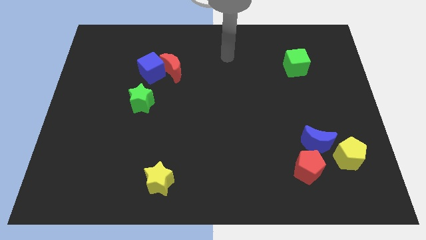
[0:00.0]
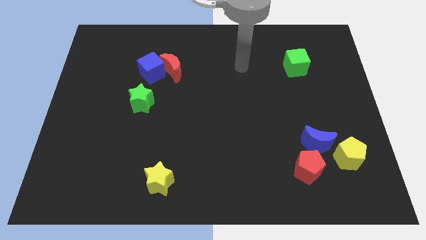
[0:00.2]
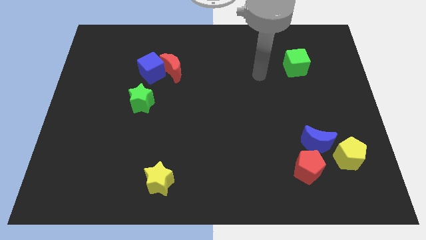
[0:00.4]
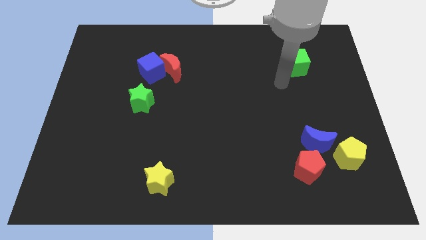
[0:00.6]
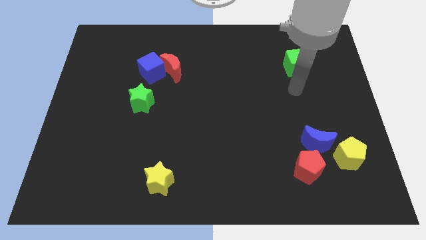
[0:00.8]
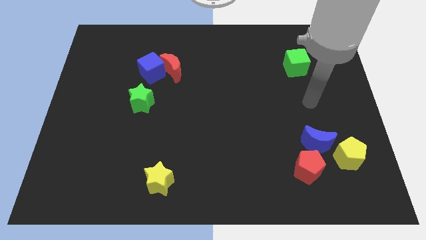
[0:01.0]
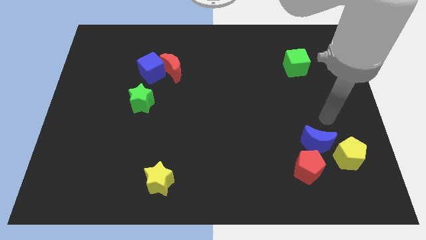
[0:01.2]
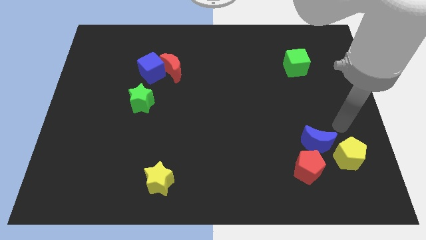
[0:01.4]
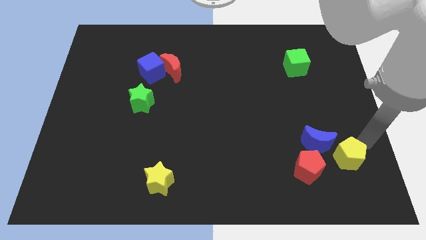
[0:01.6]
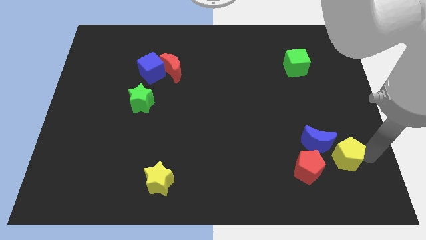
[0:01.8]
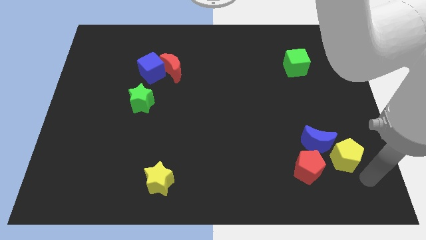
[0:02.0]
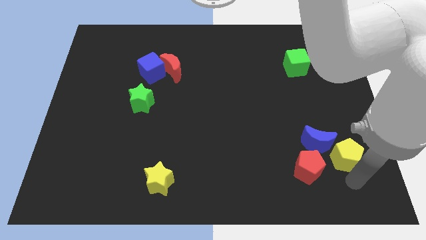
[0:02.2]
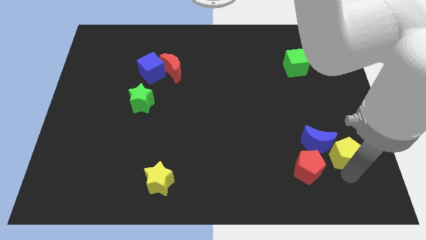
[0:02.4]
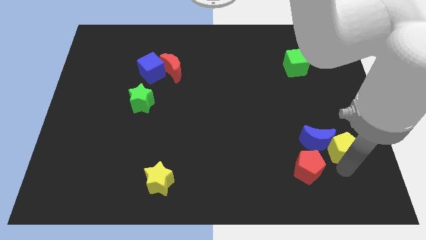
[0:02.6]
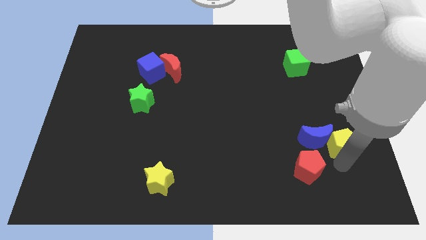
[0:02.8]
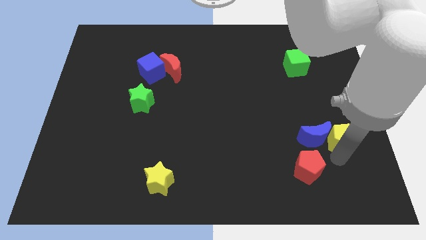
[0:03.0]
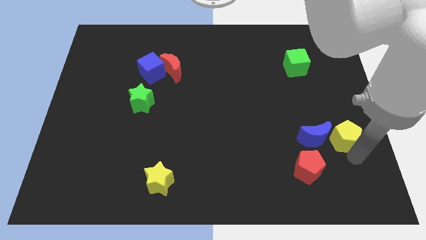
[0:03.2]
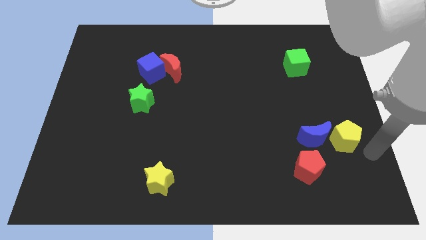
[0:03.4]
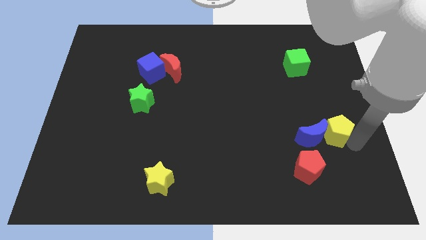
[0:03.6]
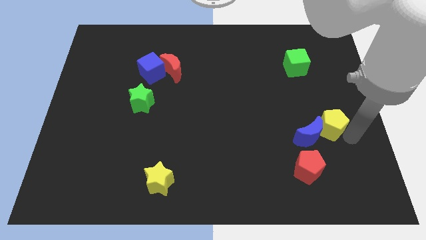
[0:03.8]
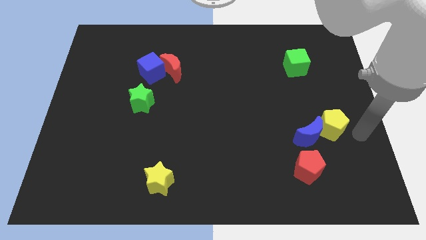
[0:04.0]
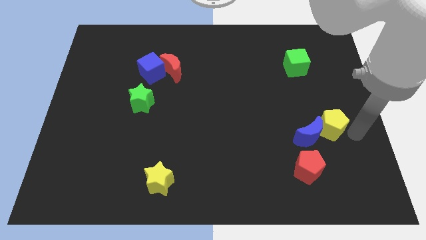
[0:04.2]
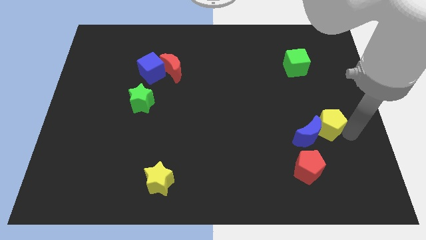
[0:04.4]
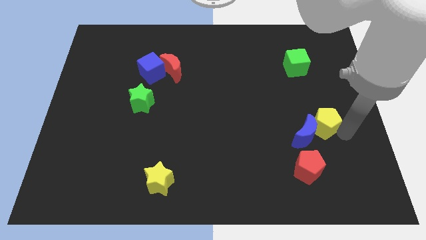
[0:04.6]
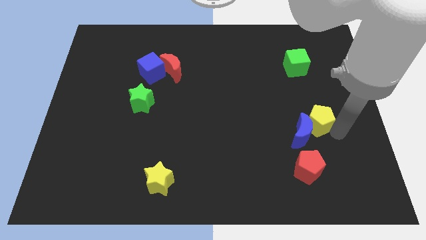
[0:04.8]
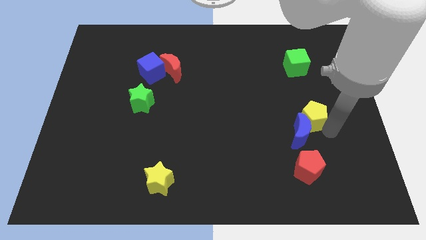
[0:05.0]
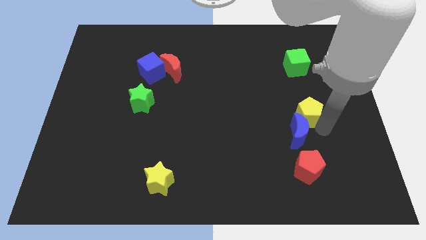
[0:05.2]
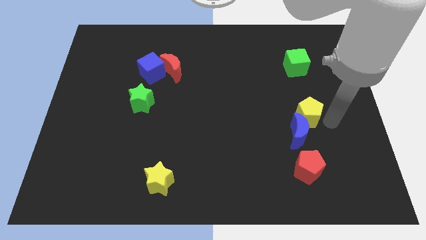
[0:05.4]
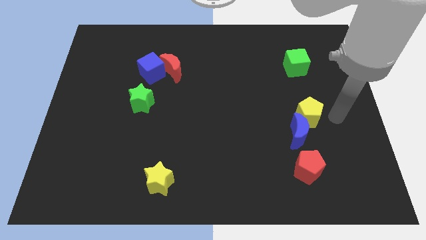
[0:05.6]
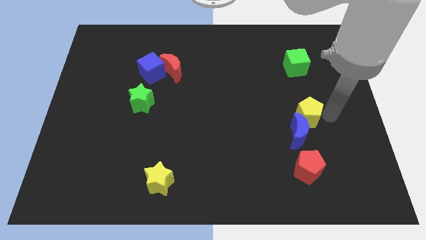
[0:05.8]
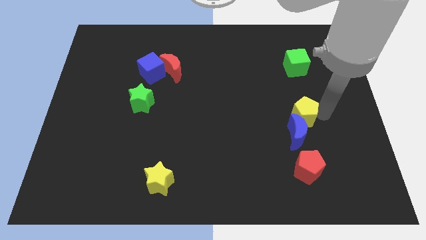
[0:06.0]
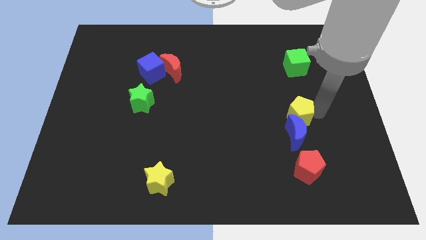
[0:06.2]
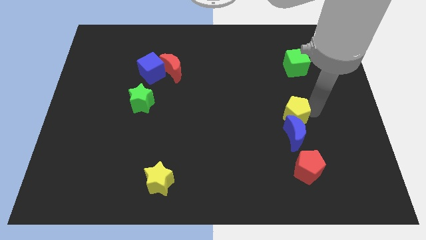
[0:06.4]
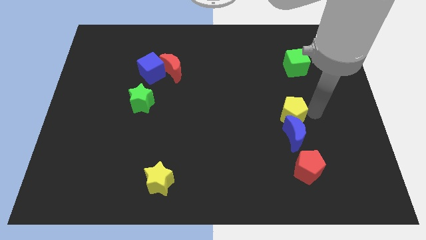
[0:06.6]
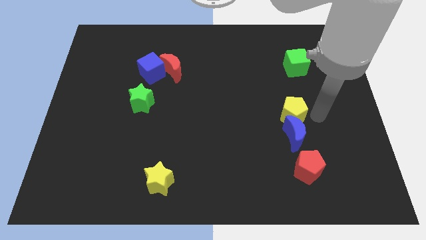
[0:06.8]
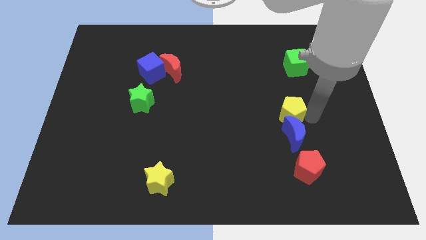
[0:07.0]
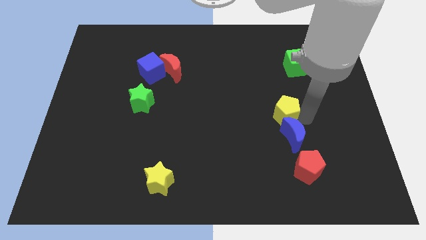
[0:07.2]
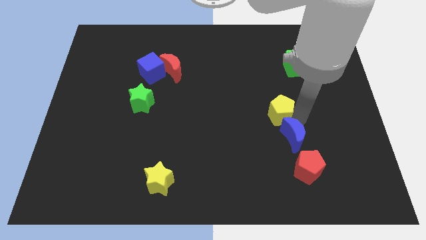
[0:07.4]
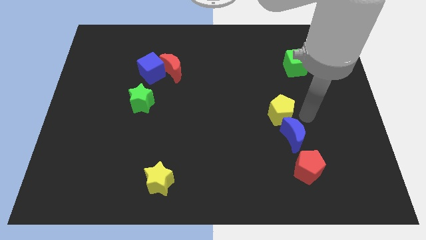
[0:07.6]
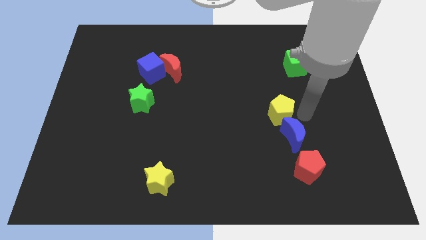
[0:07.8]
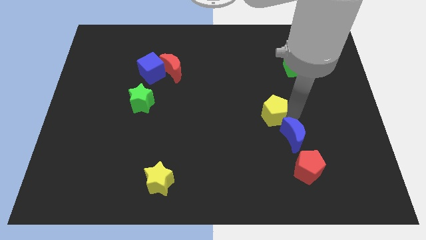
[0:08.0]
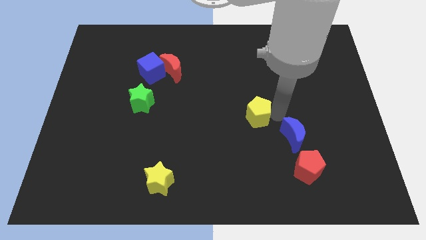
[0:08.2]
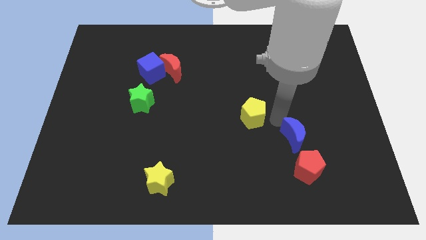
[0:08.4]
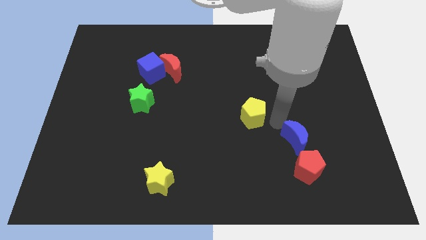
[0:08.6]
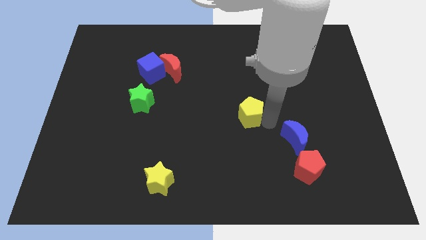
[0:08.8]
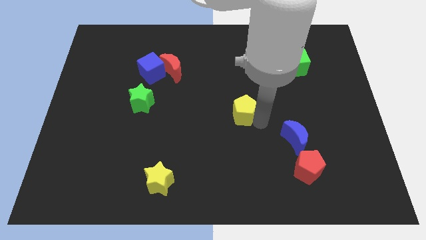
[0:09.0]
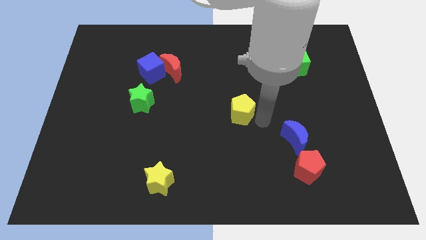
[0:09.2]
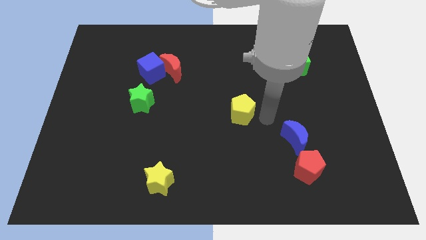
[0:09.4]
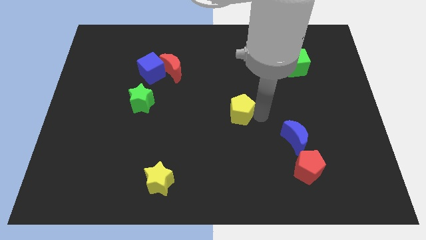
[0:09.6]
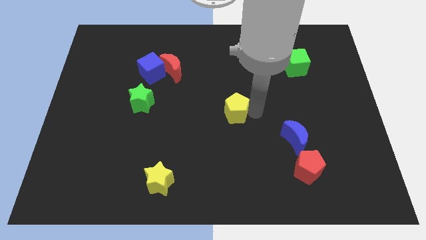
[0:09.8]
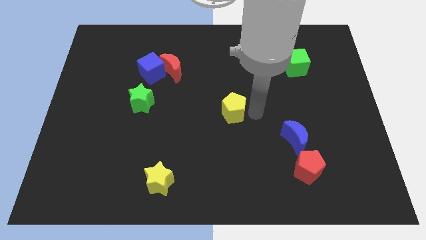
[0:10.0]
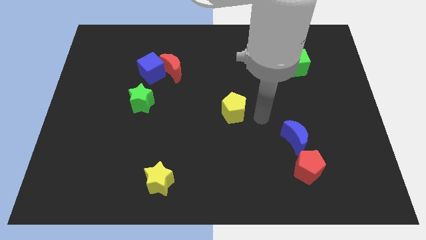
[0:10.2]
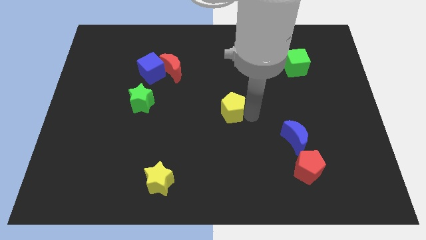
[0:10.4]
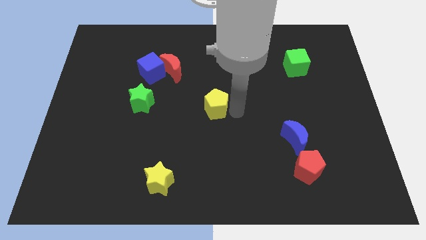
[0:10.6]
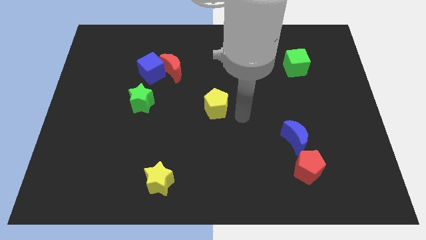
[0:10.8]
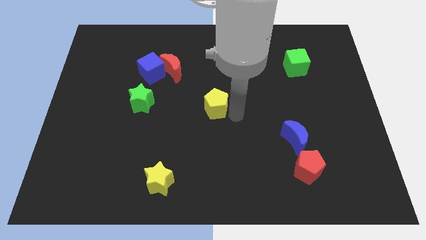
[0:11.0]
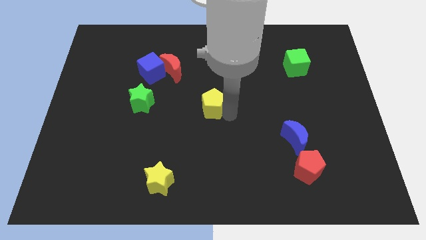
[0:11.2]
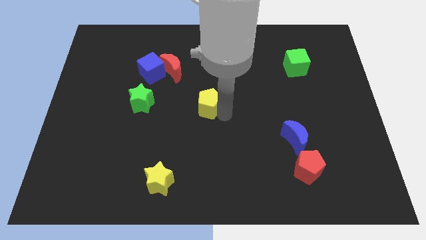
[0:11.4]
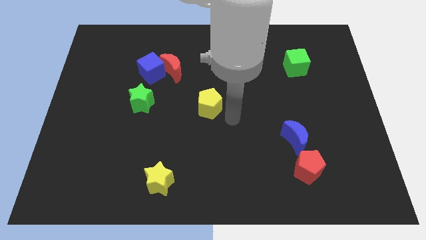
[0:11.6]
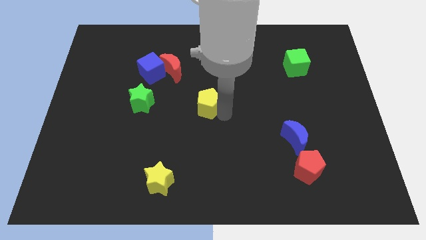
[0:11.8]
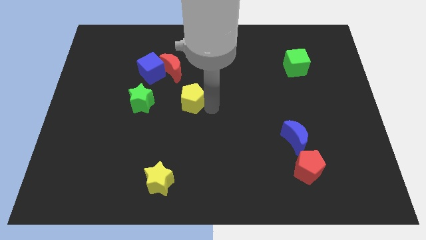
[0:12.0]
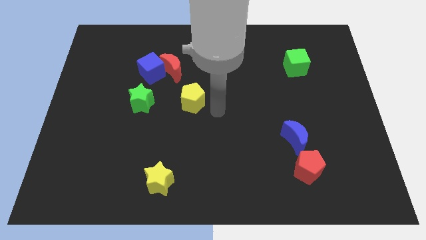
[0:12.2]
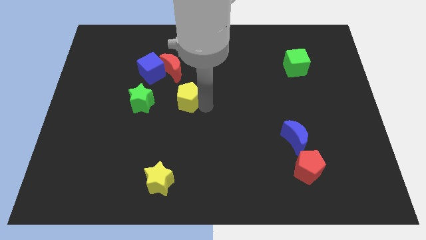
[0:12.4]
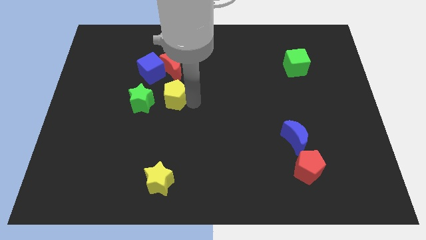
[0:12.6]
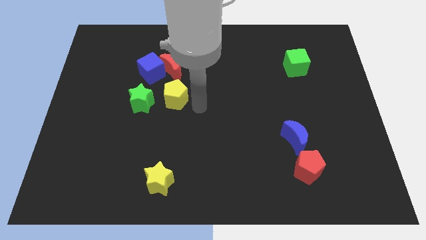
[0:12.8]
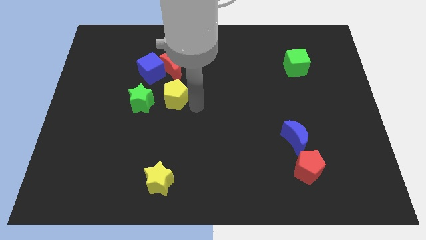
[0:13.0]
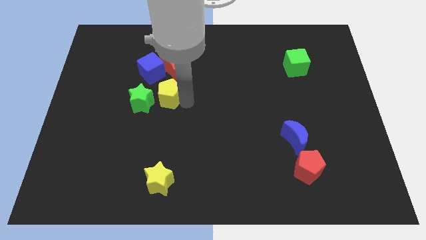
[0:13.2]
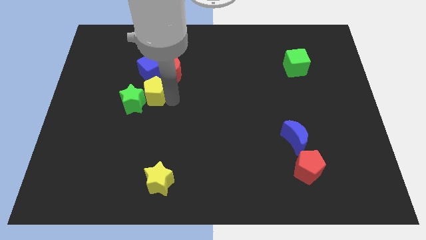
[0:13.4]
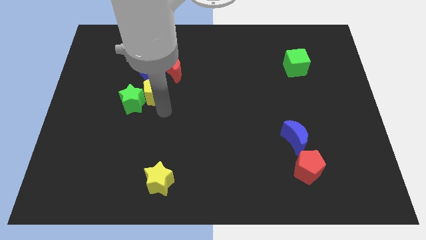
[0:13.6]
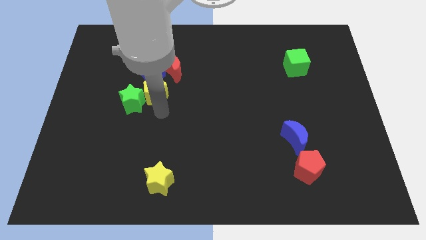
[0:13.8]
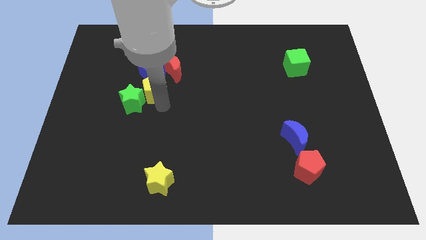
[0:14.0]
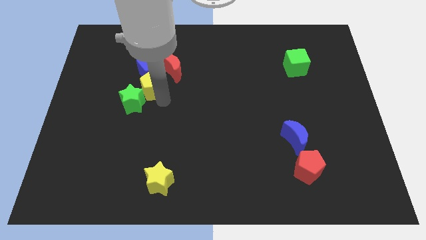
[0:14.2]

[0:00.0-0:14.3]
push the yellow pentagon towards the blue cube
